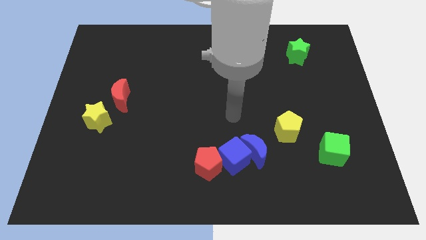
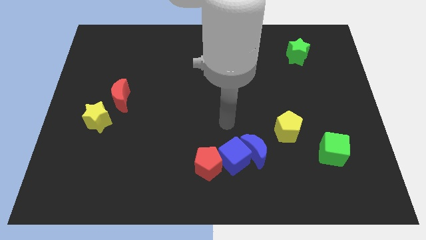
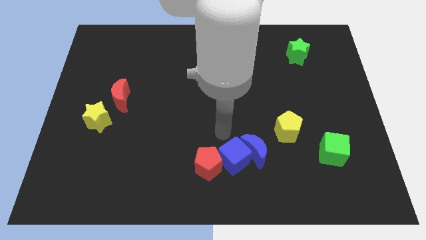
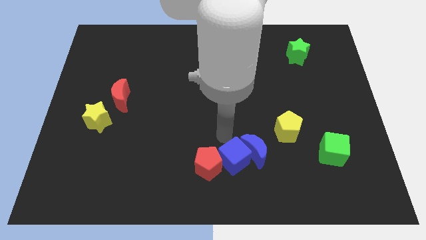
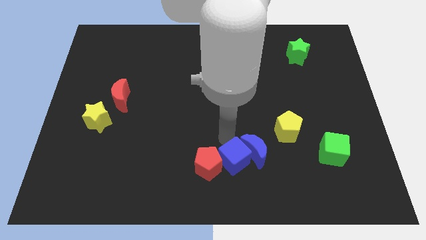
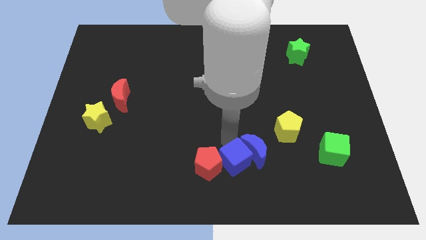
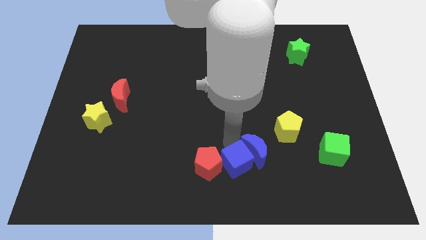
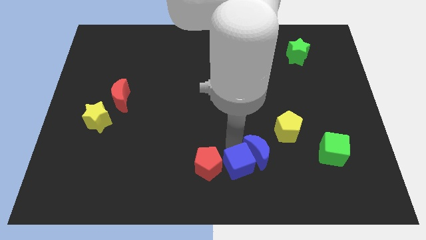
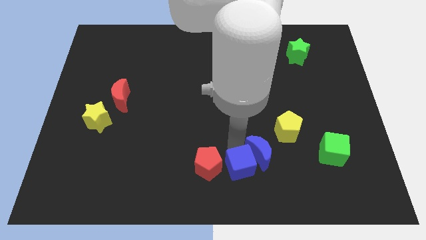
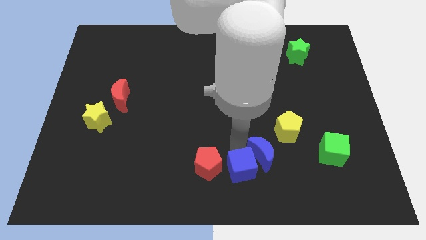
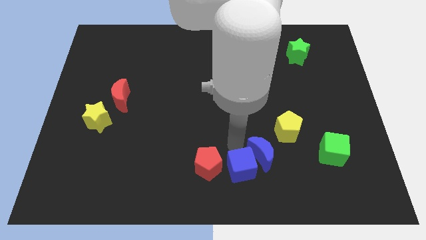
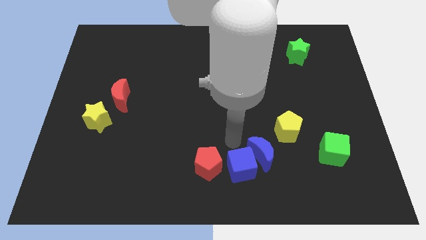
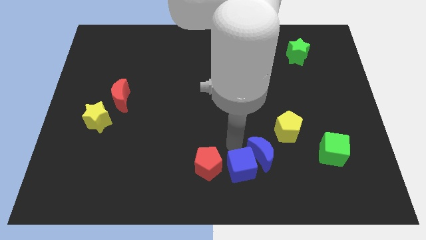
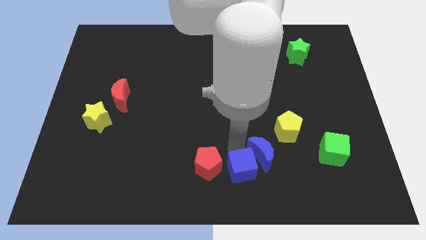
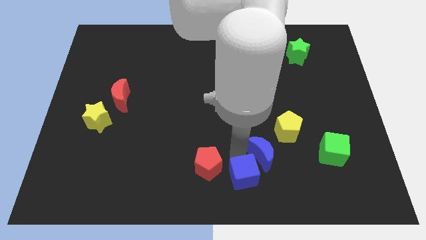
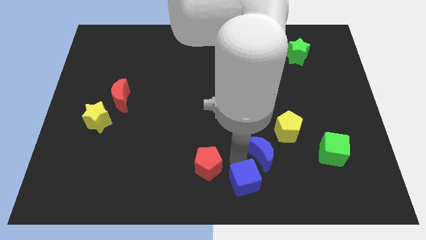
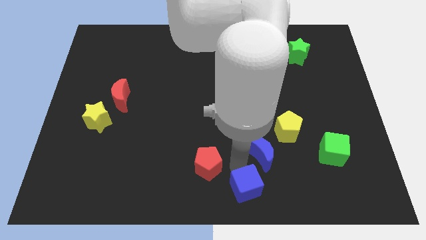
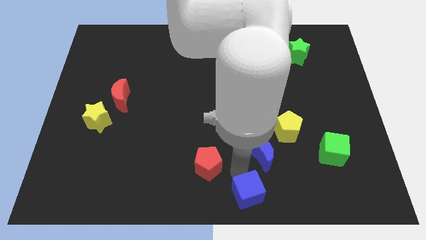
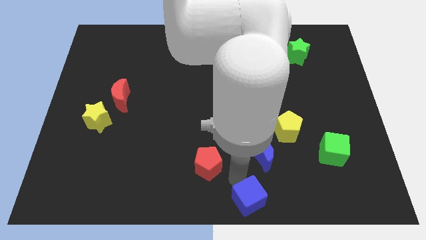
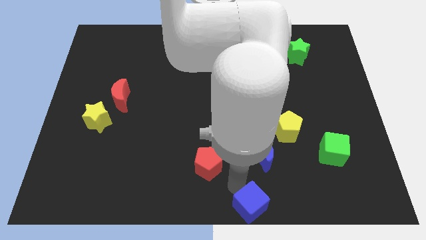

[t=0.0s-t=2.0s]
pull the blue cube apart from the blue moon and red pentagon

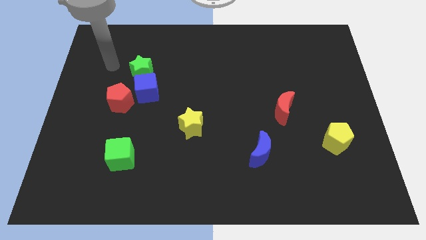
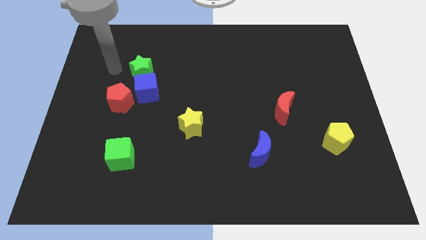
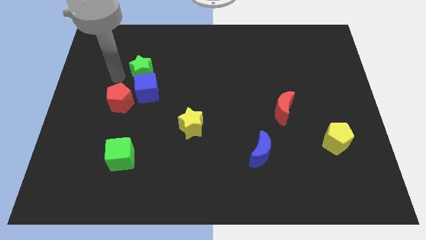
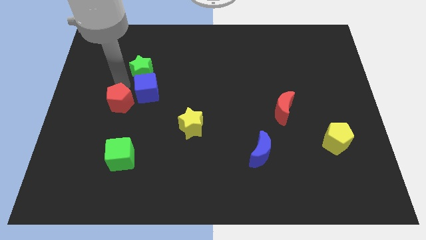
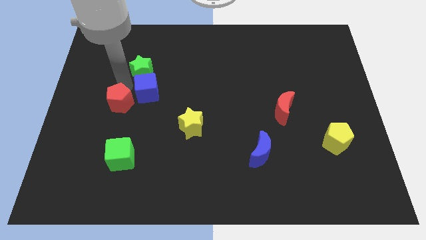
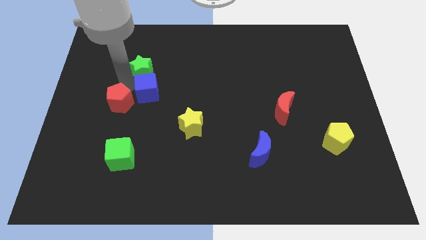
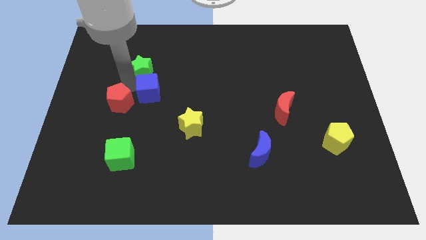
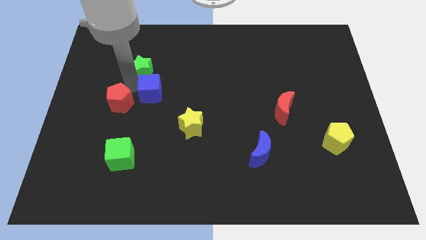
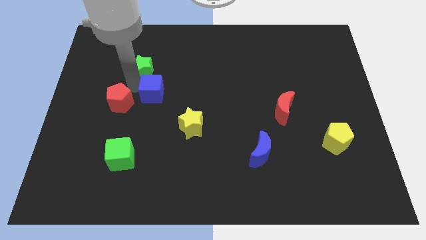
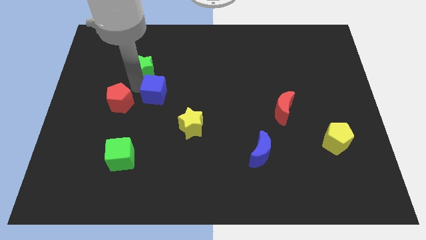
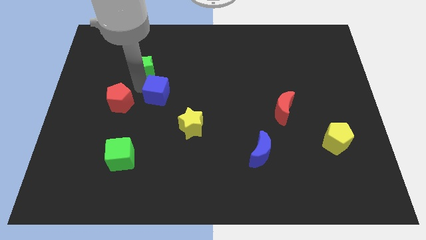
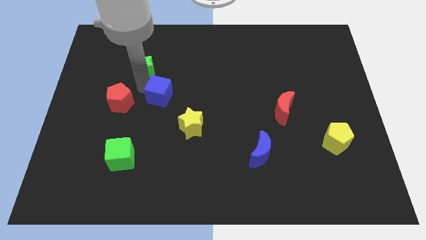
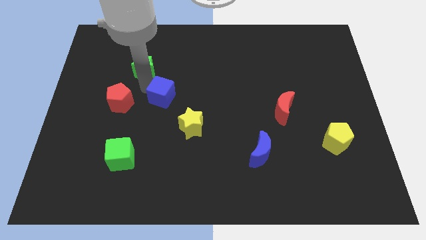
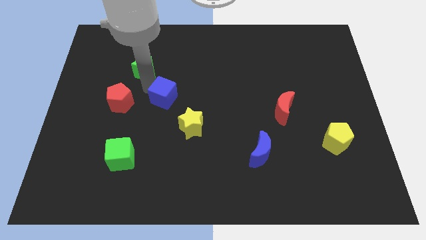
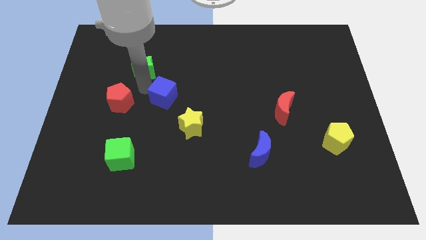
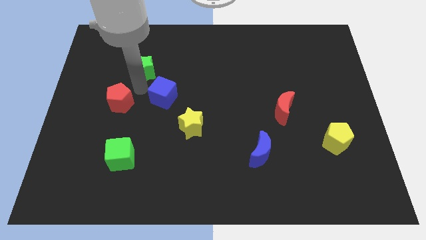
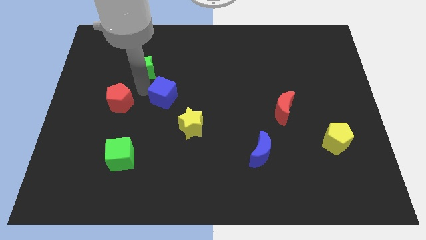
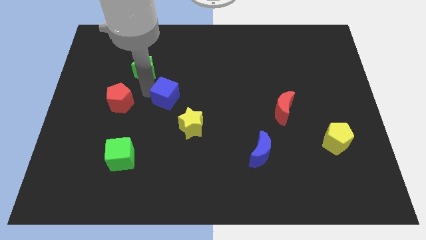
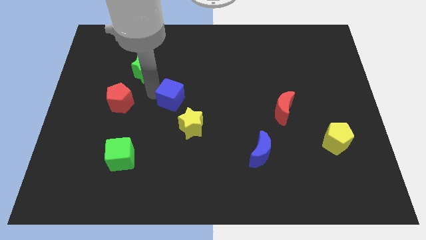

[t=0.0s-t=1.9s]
pull the blue cube apart from the green star and red pentagon

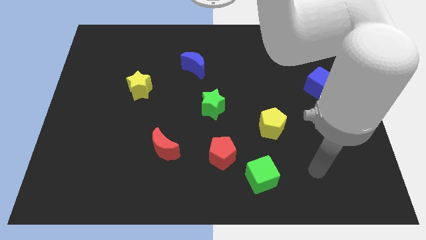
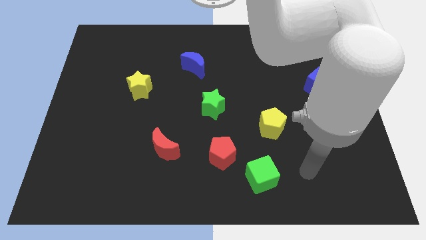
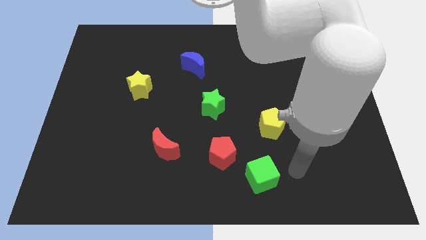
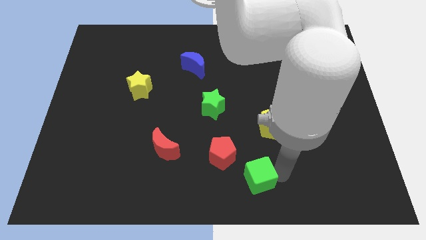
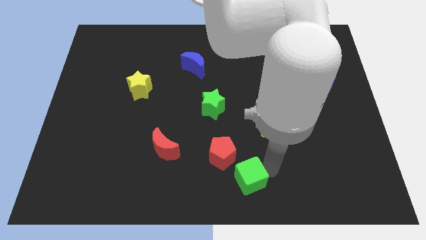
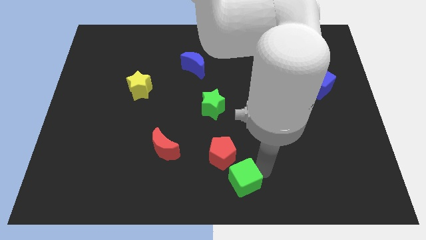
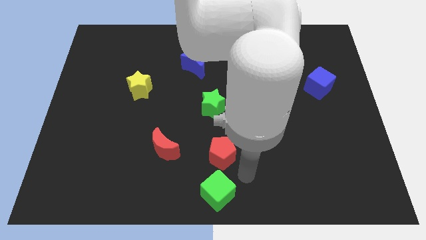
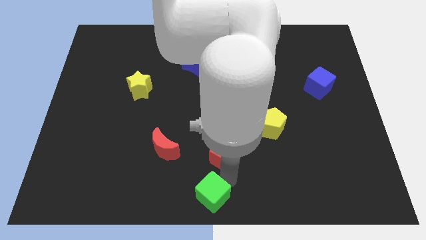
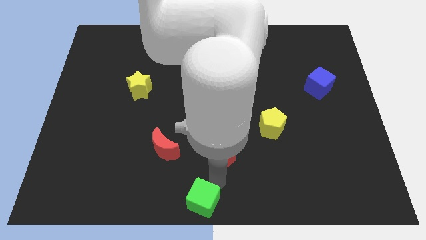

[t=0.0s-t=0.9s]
move the red pentagon away from the green cube

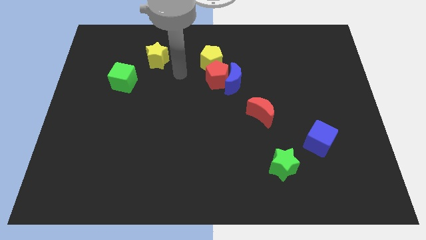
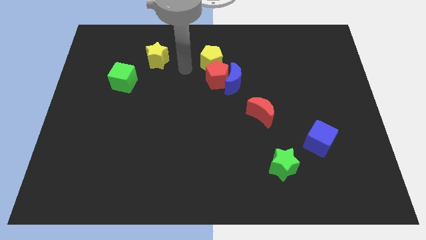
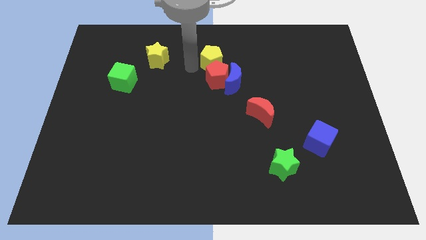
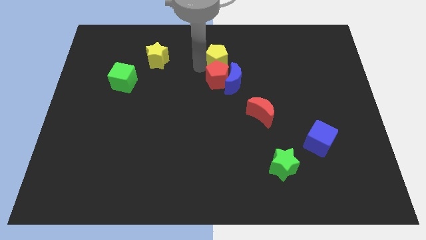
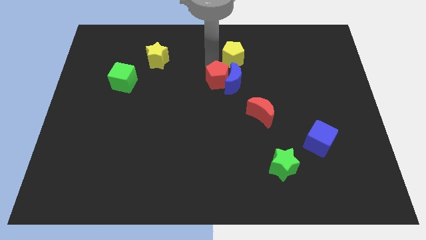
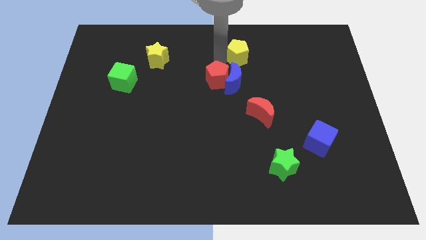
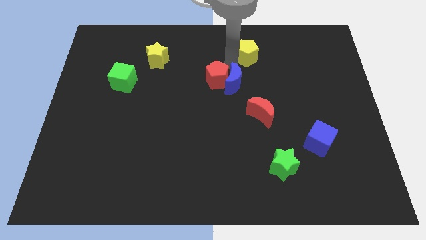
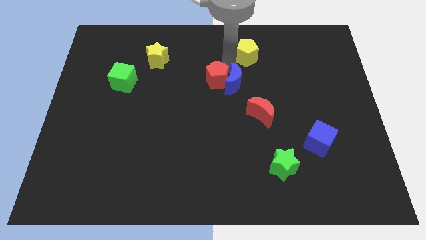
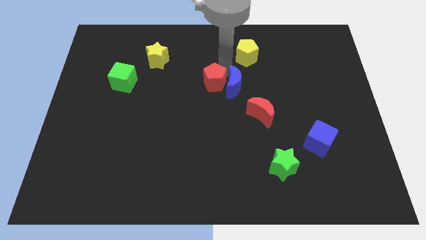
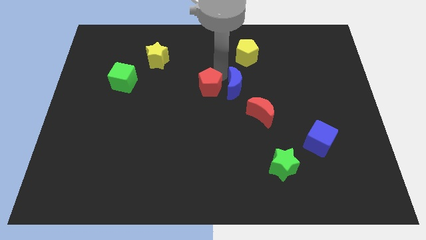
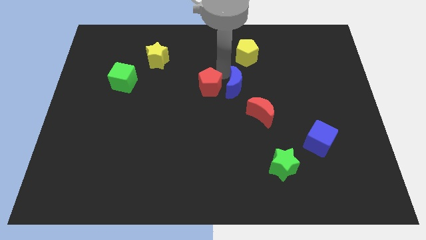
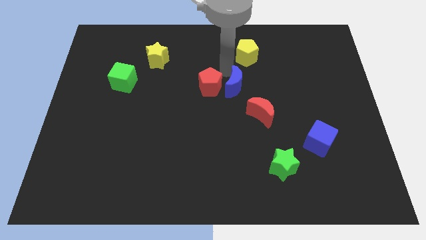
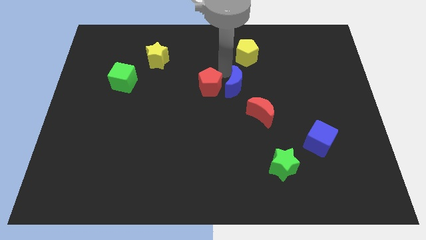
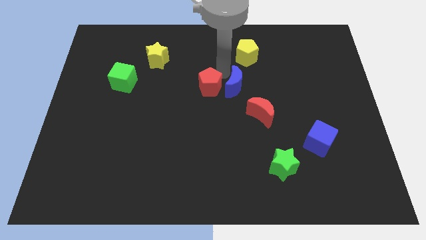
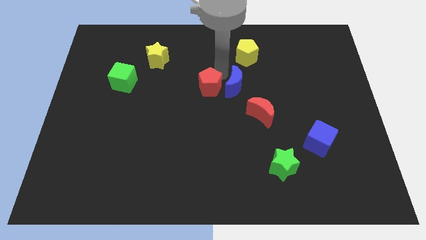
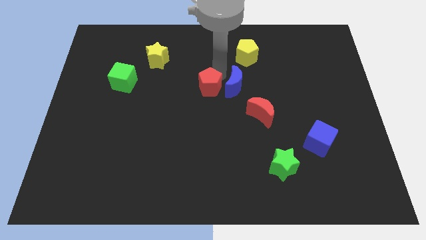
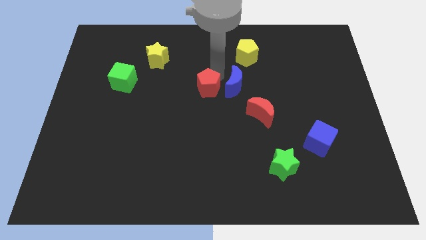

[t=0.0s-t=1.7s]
pull the red pentagon apart from the blue moon and yellow pentagon

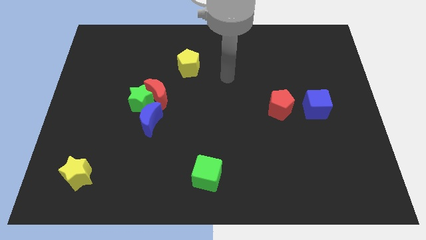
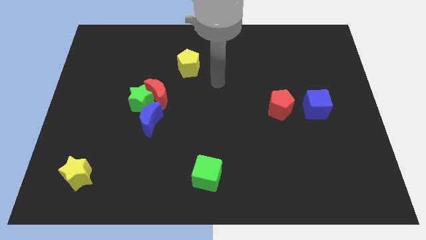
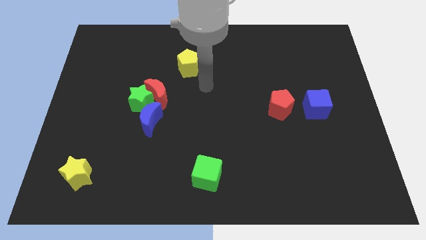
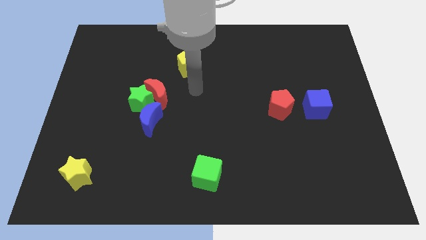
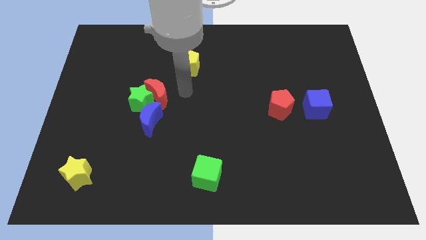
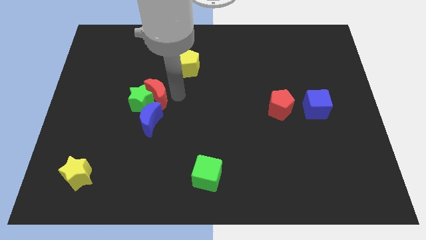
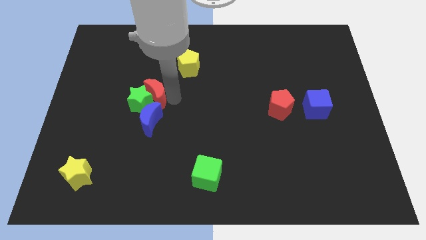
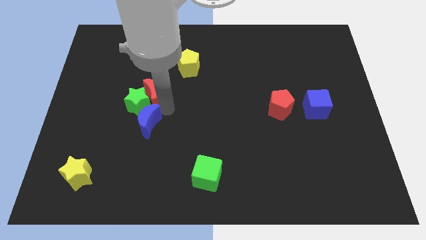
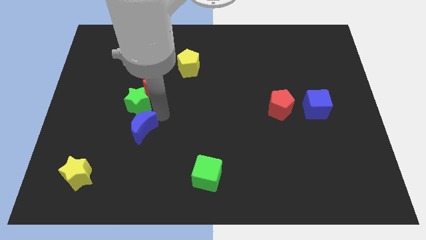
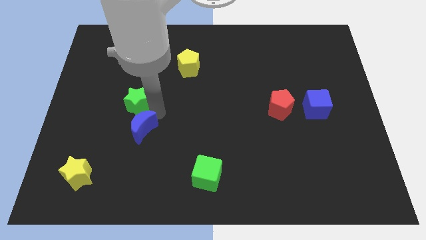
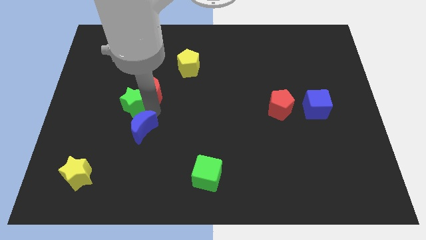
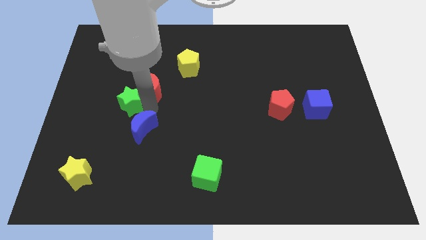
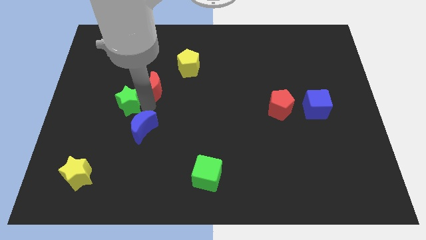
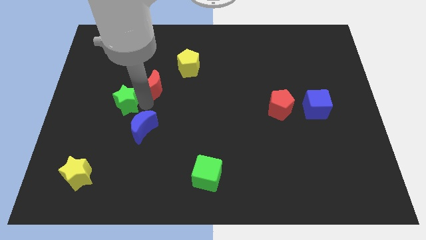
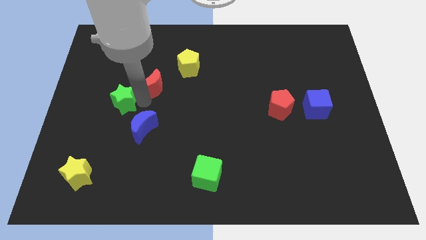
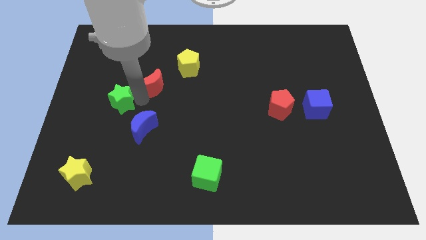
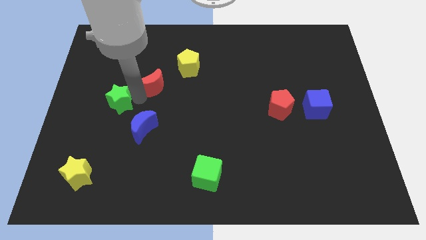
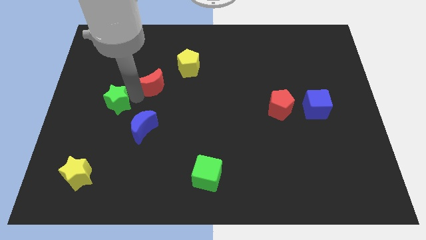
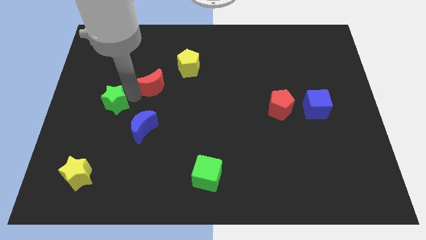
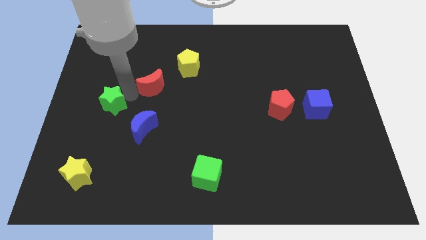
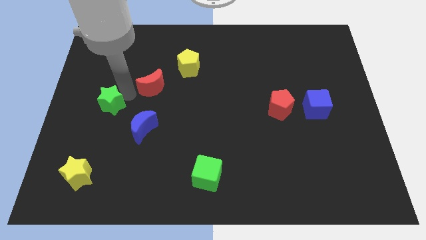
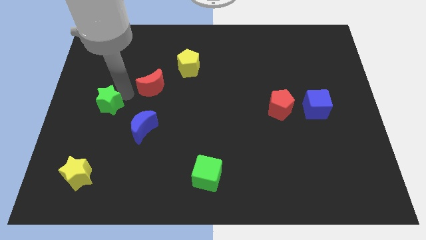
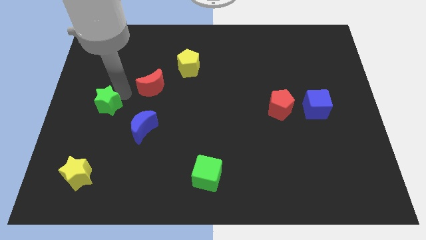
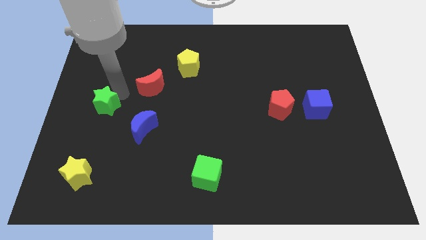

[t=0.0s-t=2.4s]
pull the green star apart from the red moon and blue moon

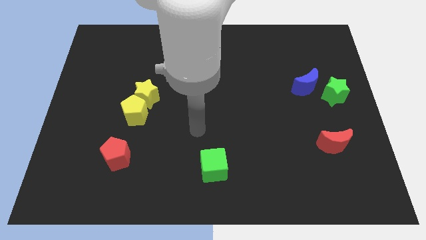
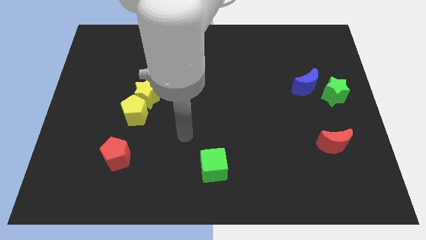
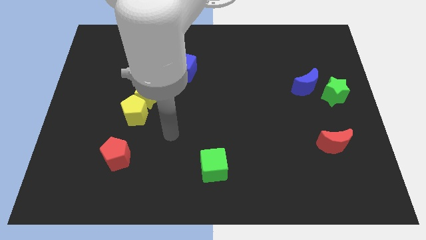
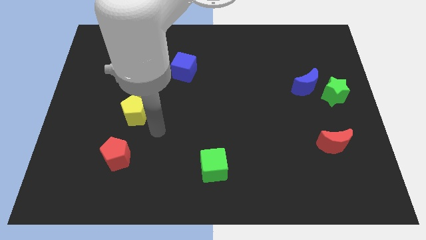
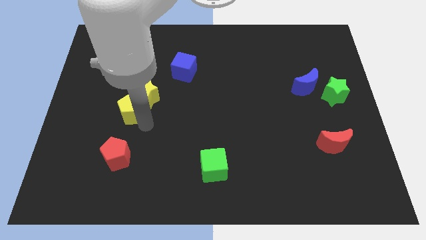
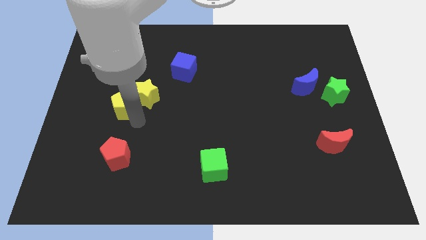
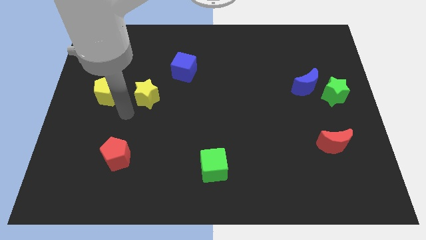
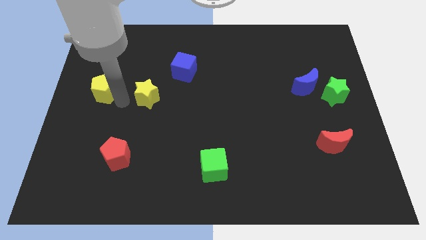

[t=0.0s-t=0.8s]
pull the yellow star apart from the yellow pentagon
